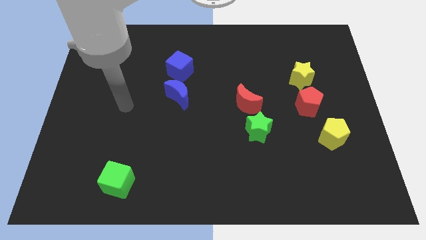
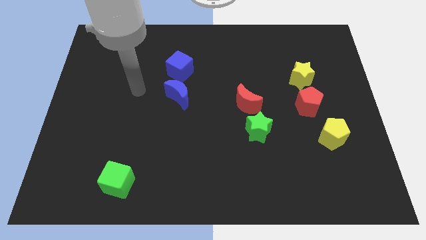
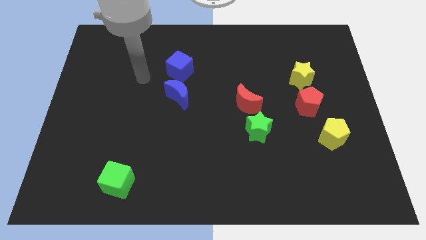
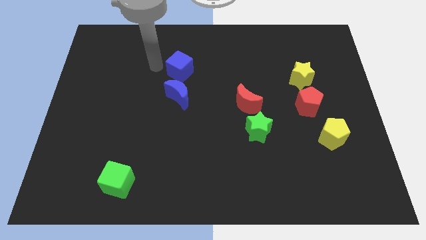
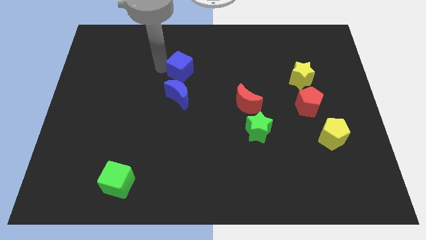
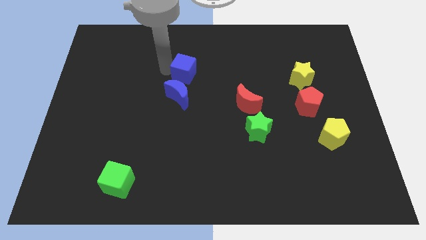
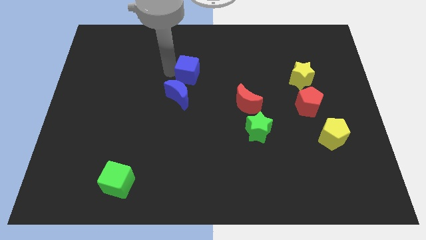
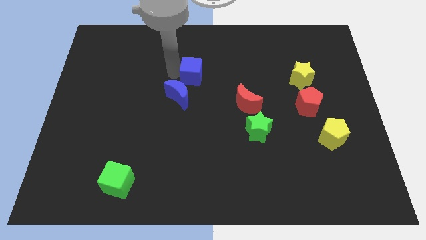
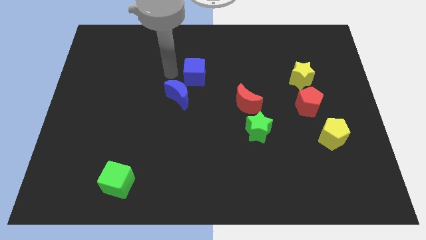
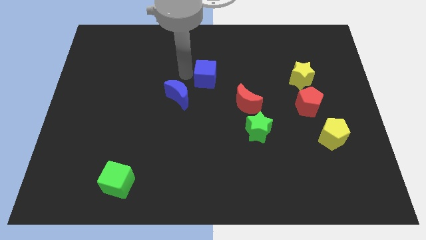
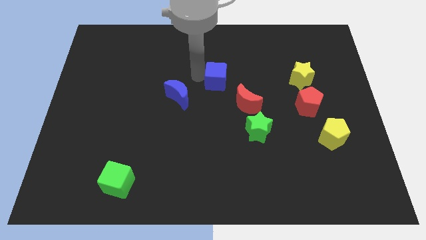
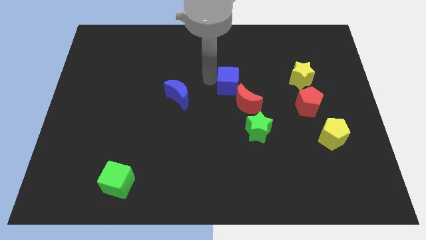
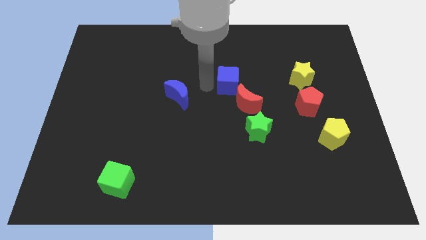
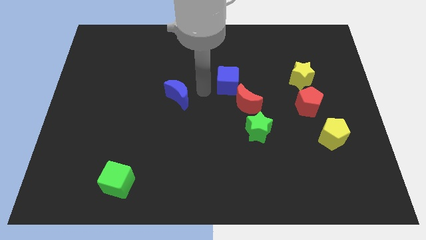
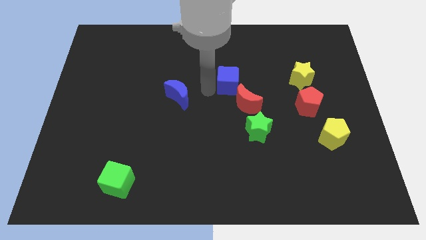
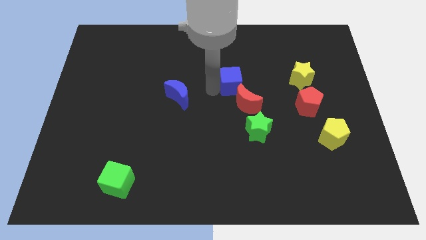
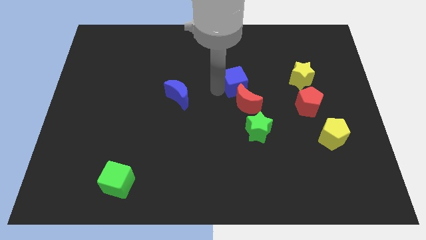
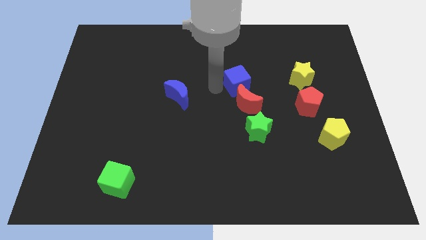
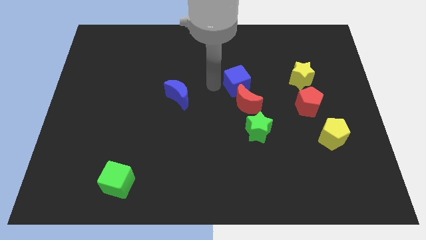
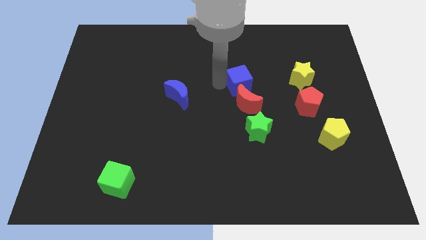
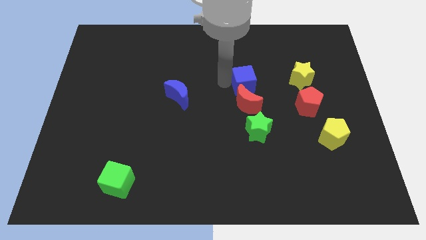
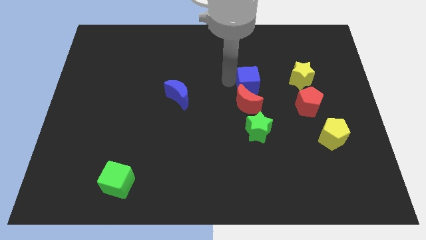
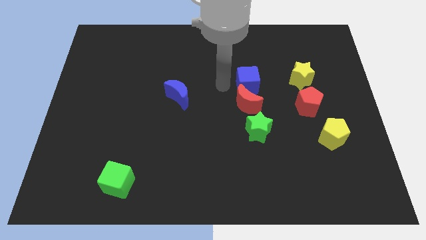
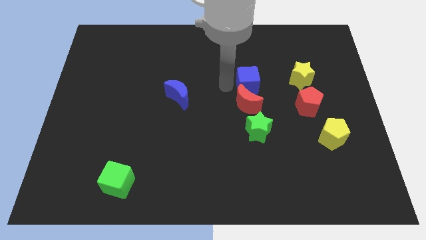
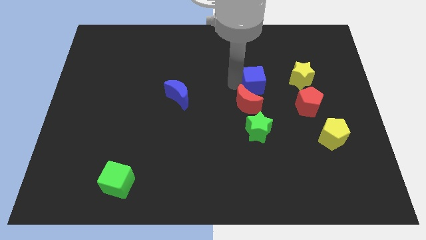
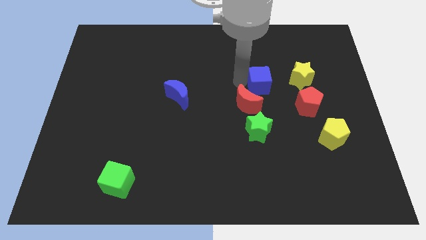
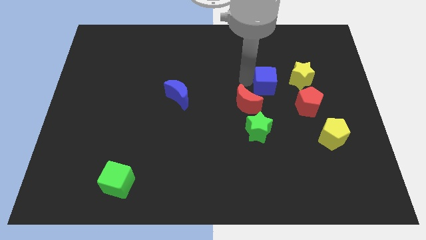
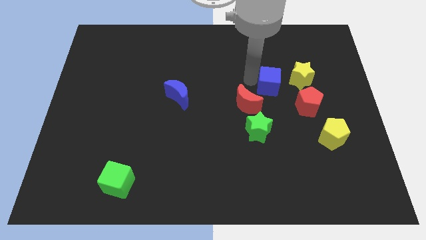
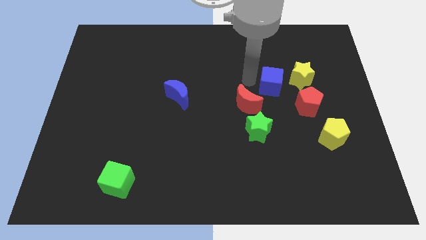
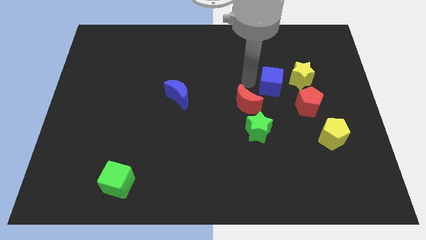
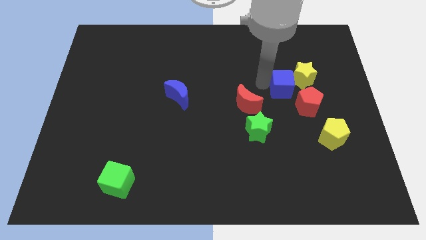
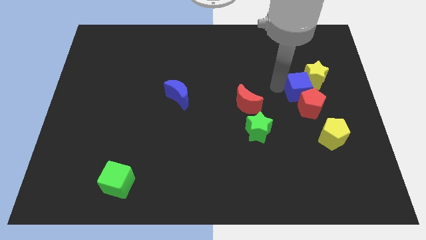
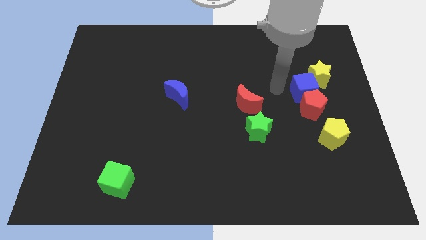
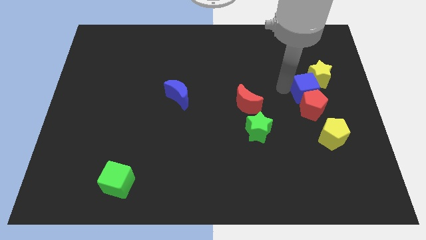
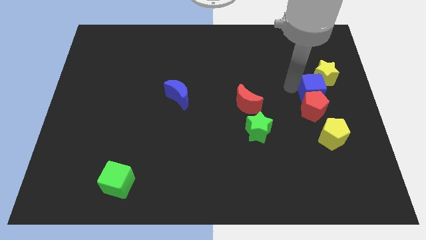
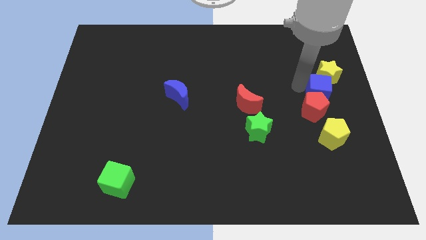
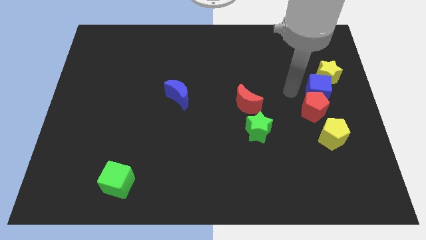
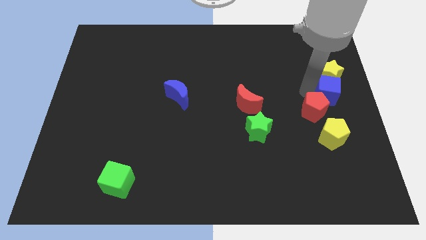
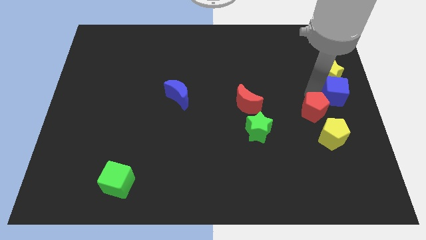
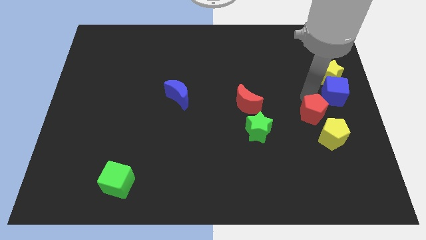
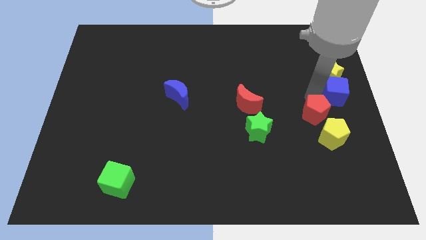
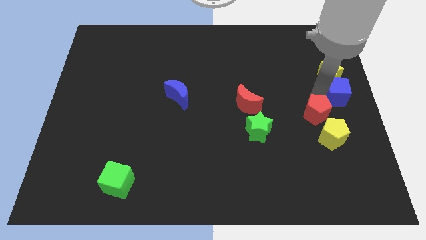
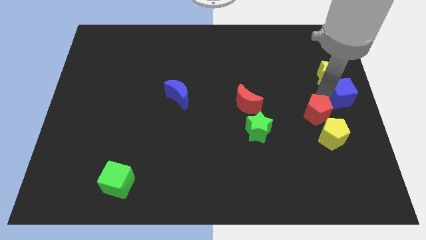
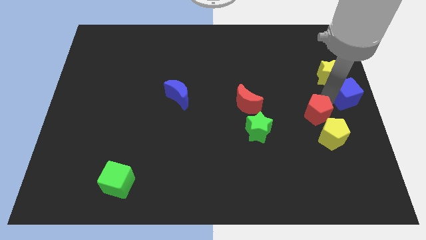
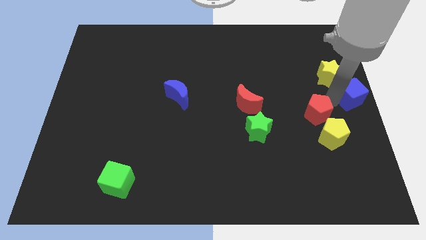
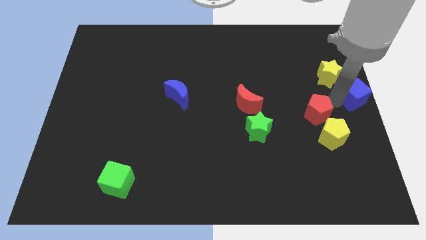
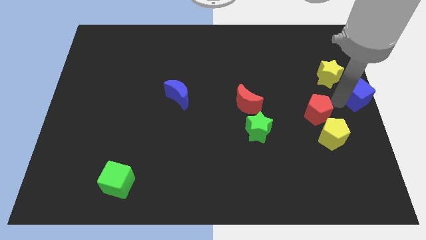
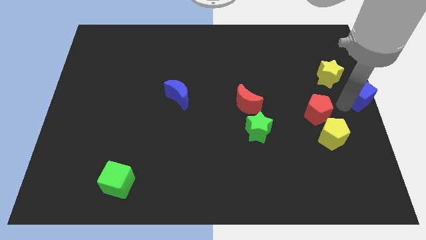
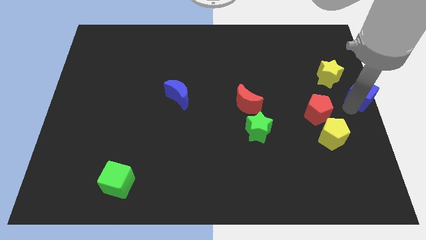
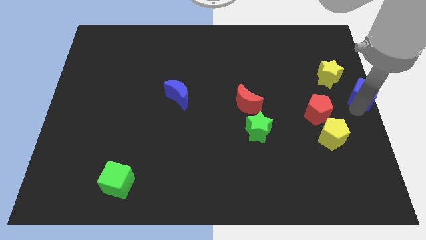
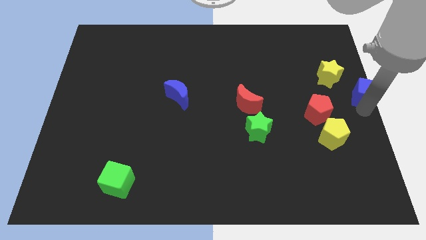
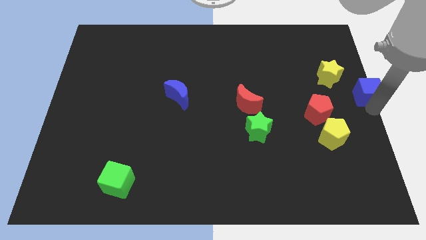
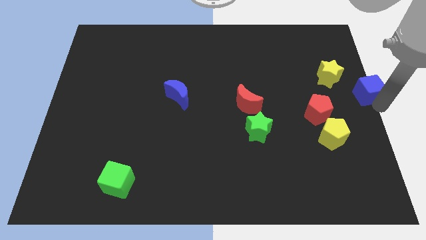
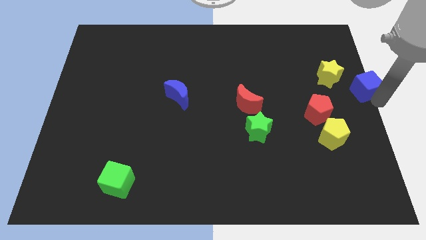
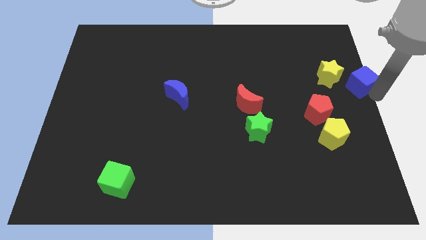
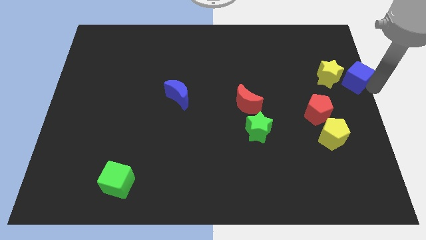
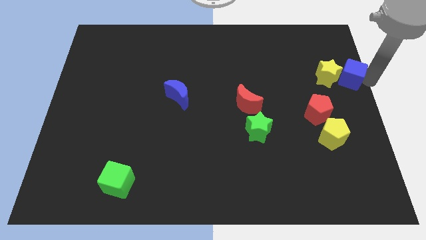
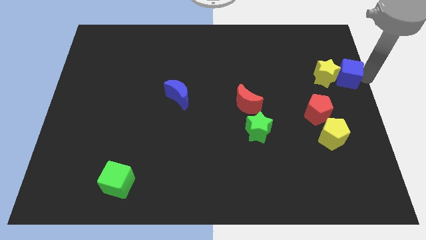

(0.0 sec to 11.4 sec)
slide the blue cube to the bottom right of the yellow star

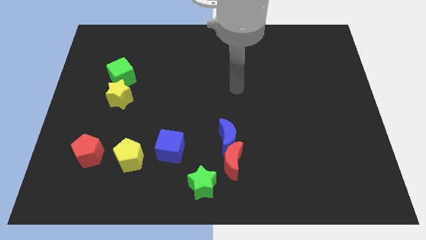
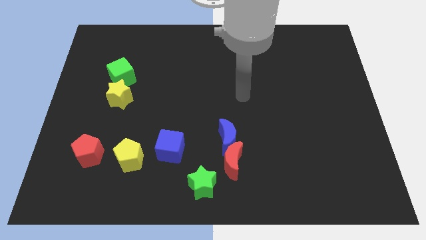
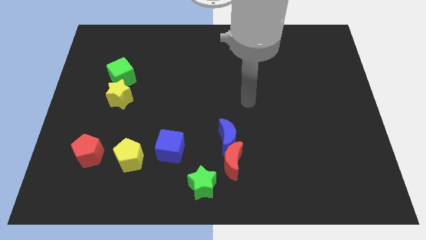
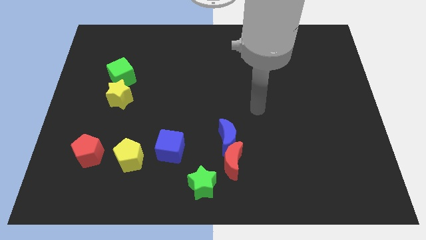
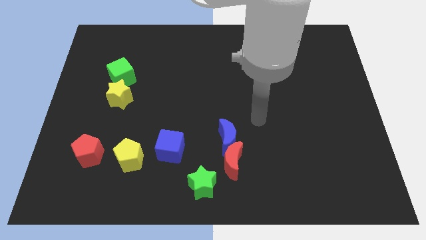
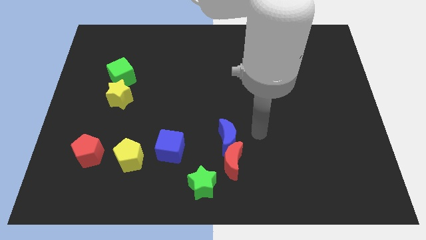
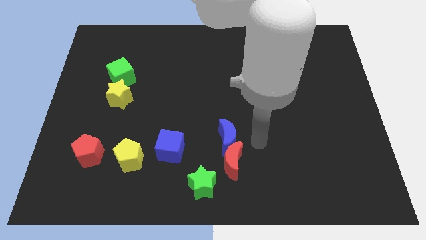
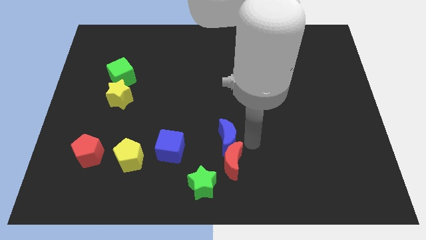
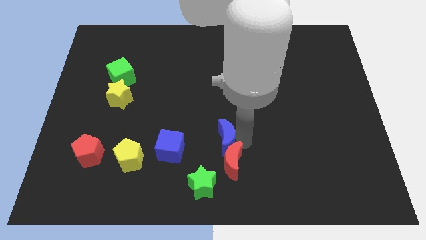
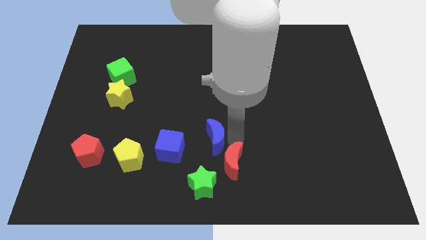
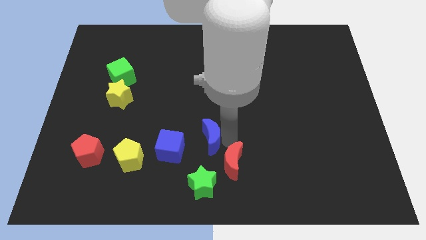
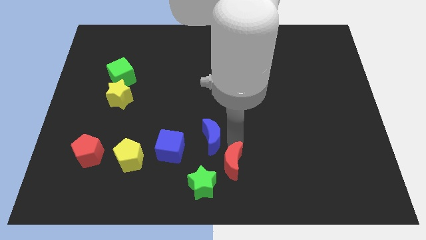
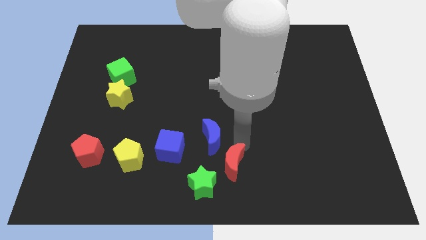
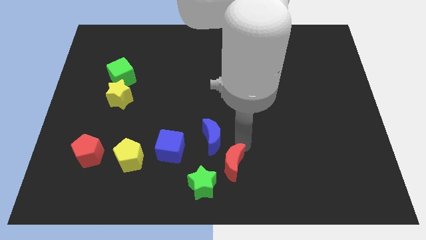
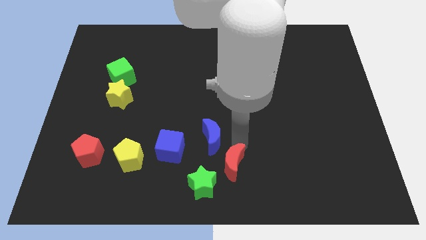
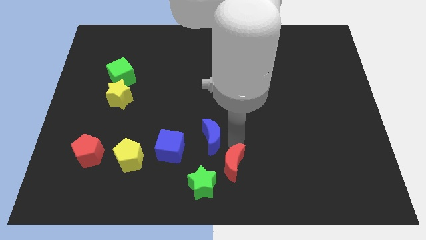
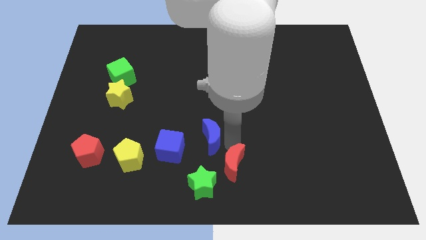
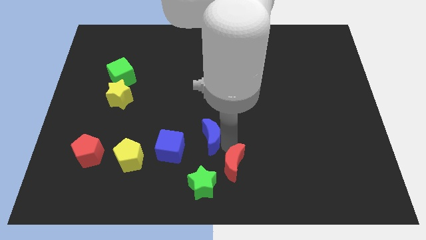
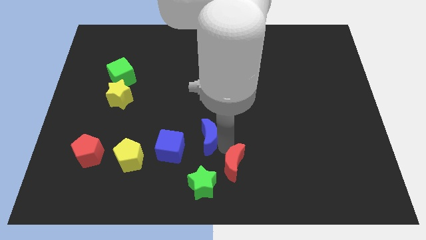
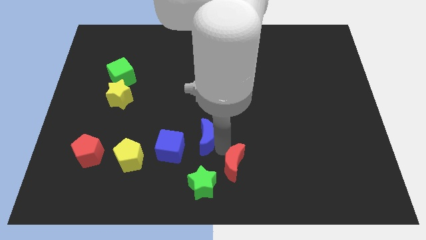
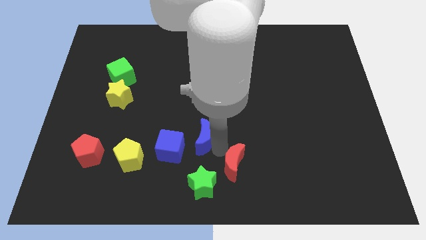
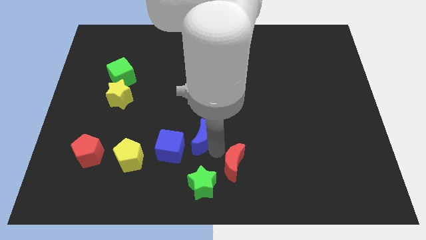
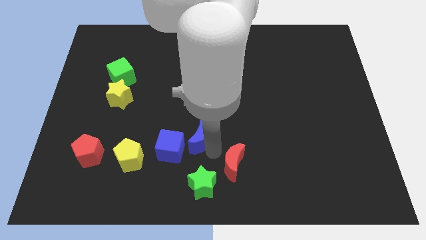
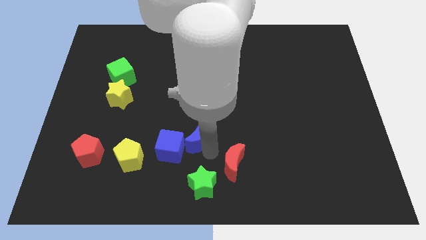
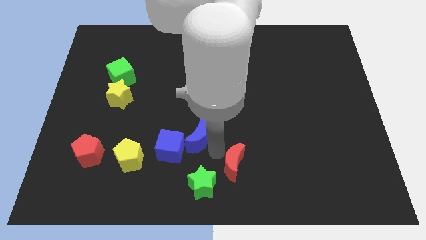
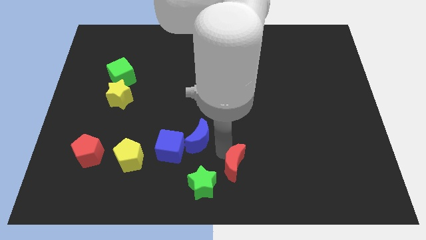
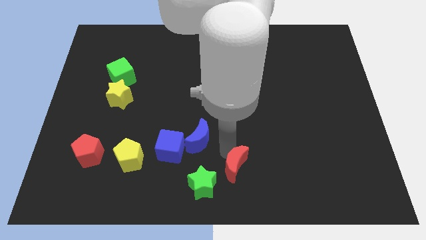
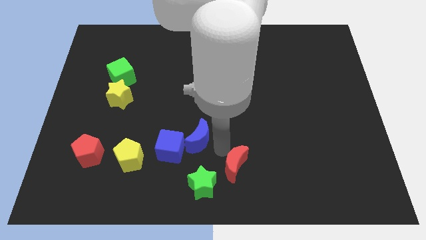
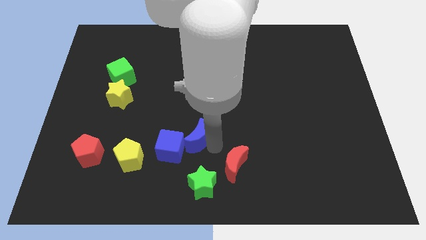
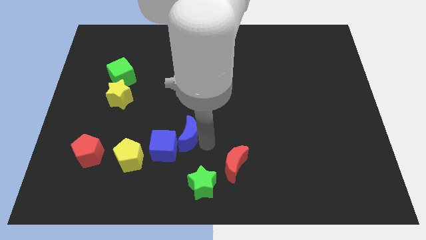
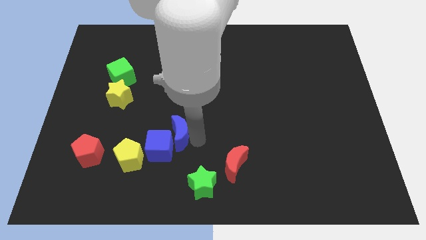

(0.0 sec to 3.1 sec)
move the blue moon to the top right of the yellow pentagon
